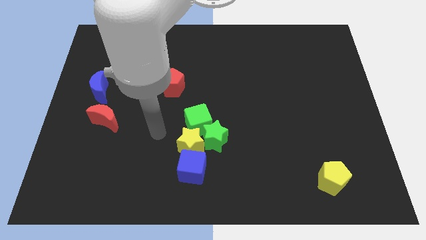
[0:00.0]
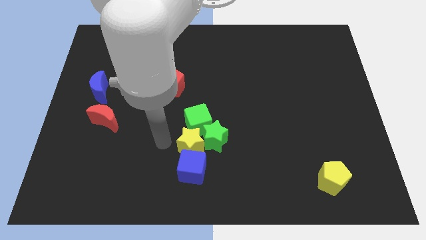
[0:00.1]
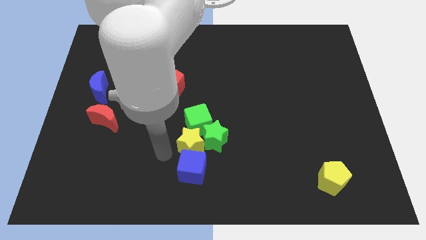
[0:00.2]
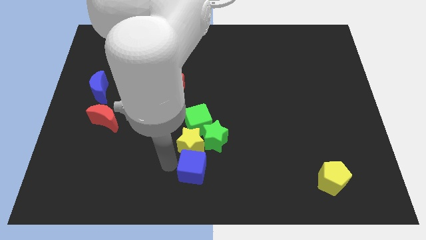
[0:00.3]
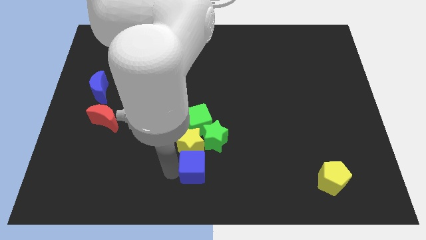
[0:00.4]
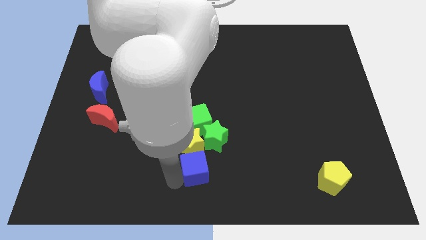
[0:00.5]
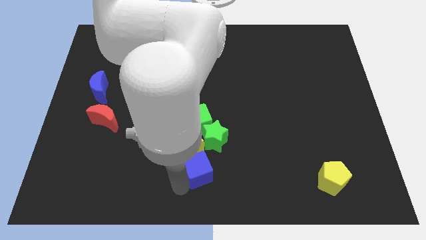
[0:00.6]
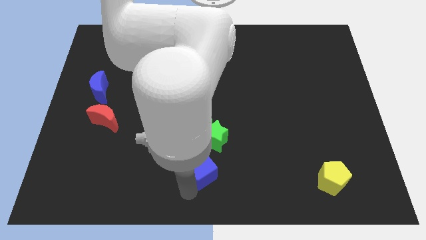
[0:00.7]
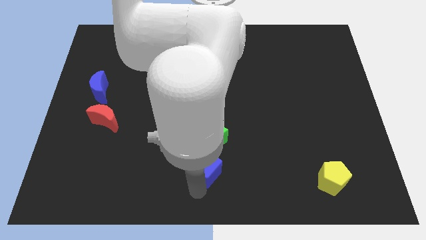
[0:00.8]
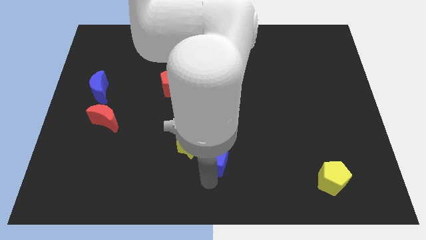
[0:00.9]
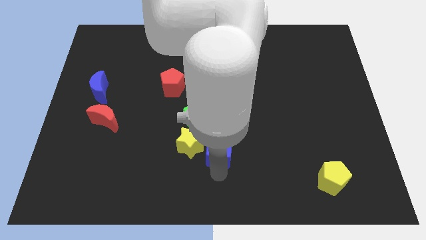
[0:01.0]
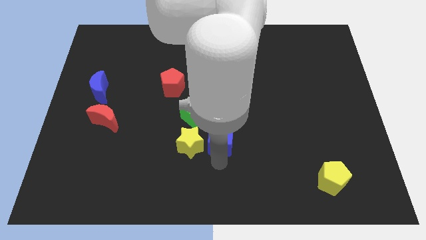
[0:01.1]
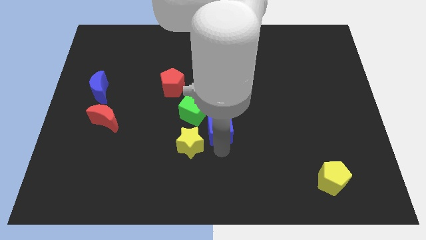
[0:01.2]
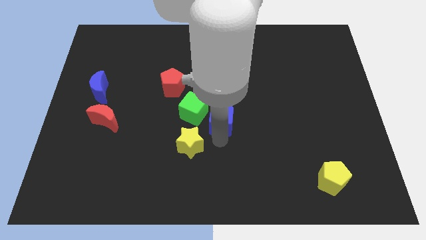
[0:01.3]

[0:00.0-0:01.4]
pull the yellow star apart from the group

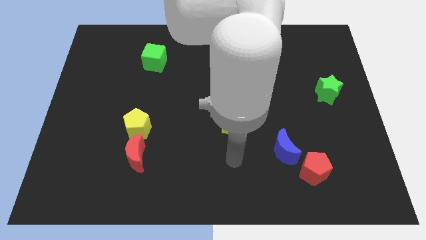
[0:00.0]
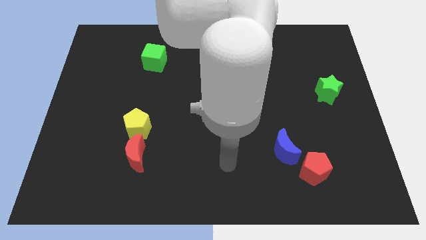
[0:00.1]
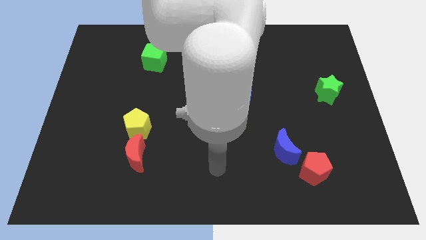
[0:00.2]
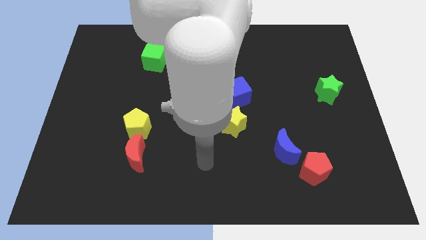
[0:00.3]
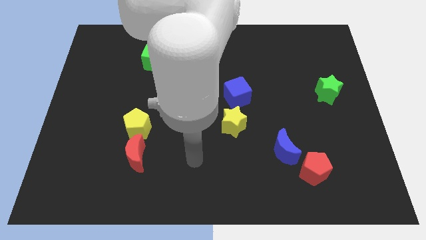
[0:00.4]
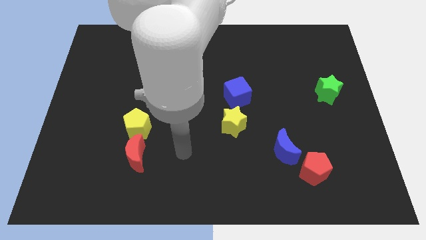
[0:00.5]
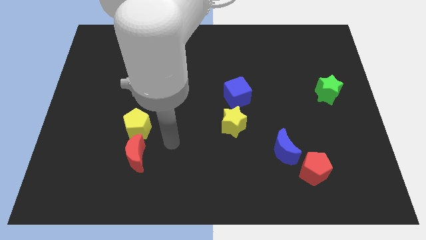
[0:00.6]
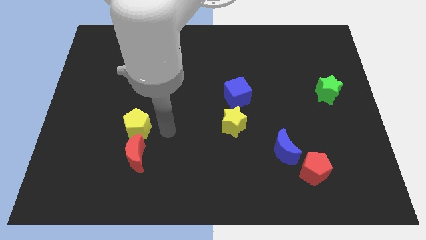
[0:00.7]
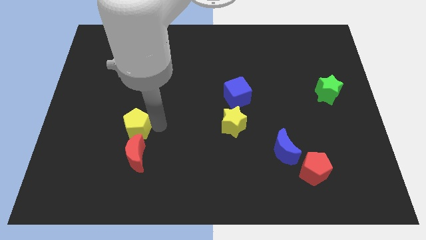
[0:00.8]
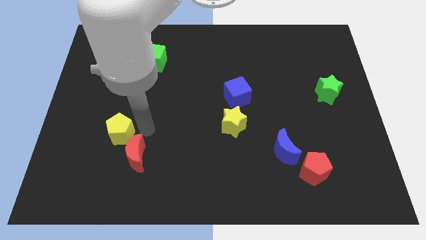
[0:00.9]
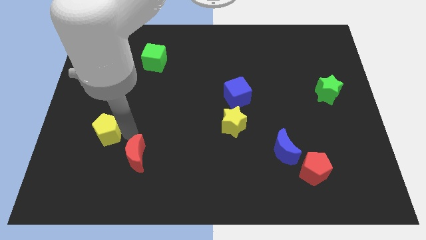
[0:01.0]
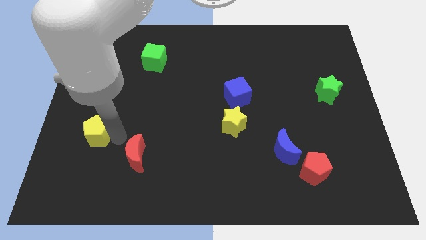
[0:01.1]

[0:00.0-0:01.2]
move the red moon away from the yellow pentagon

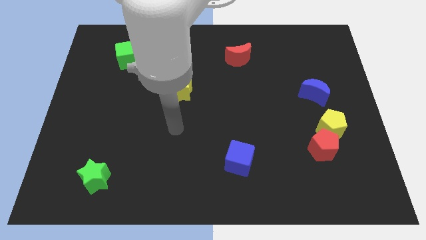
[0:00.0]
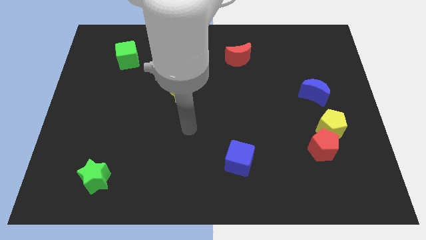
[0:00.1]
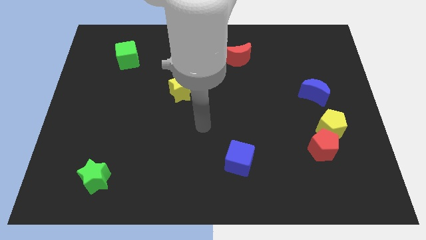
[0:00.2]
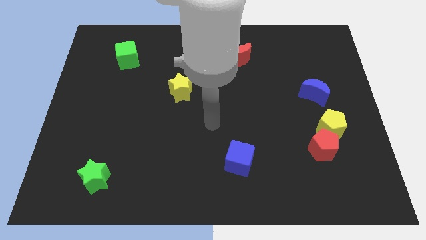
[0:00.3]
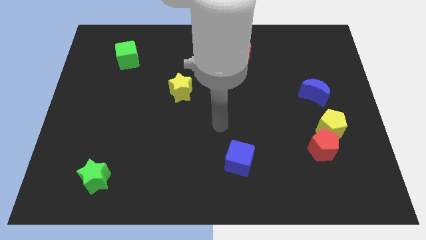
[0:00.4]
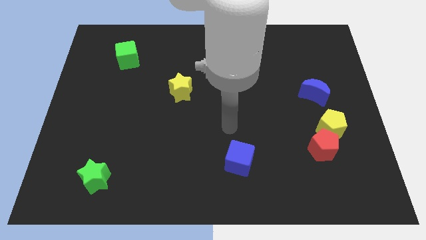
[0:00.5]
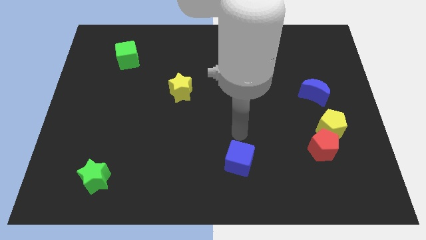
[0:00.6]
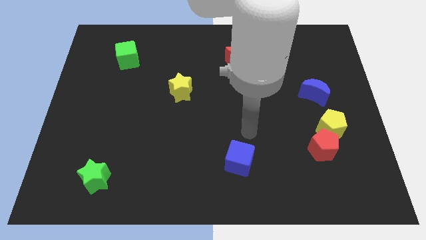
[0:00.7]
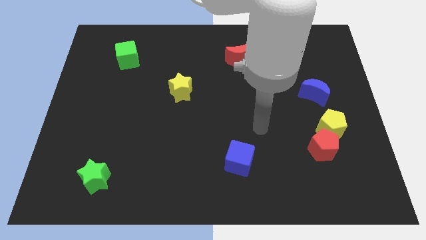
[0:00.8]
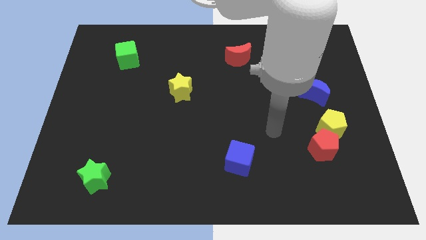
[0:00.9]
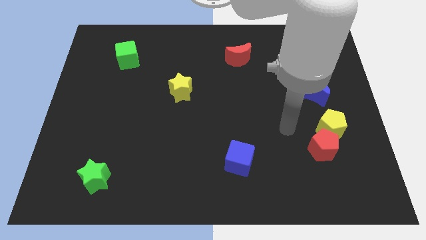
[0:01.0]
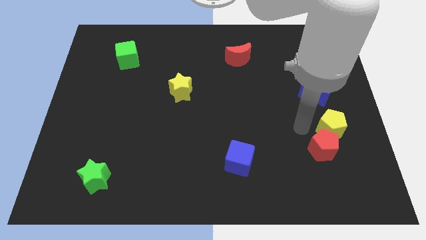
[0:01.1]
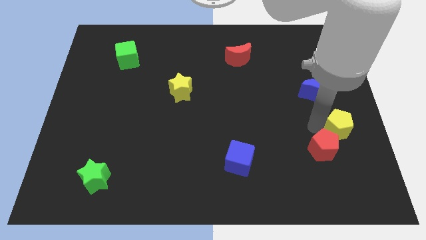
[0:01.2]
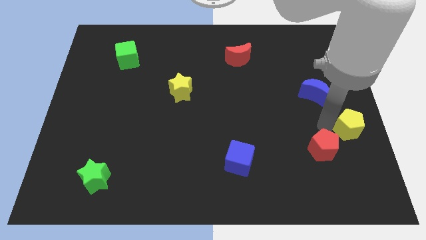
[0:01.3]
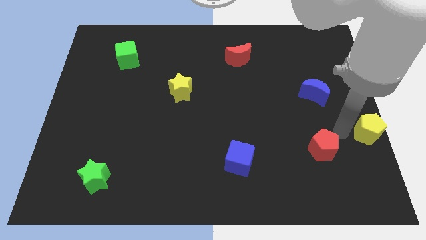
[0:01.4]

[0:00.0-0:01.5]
separate the red pentagon from the yellow pentagon

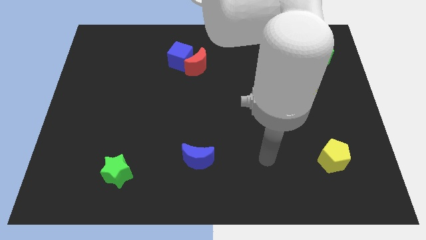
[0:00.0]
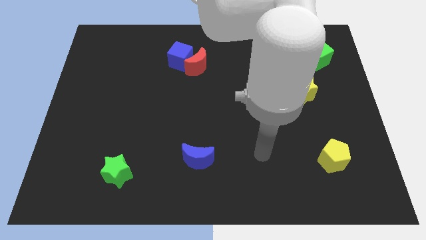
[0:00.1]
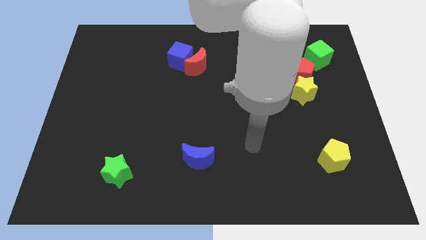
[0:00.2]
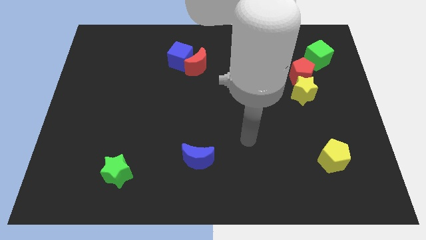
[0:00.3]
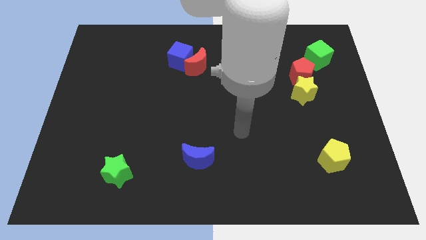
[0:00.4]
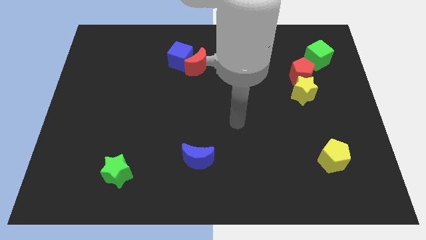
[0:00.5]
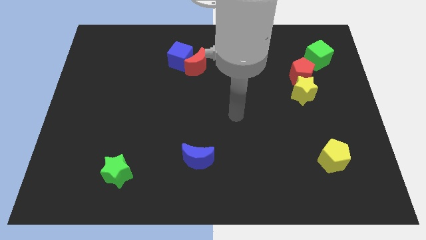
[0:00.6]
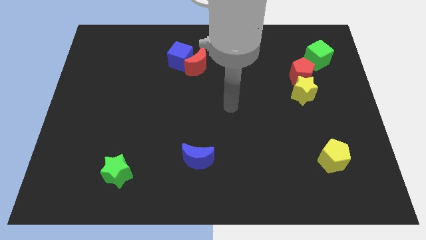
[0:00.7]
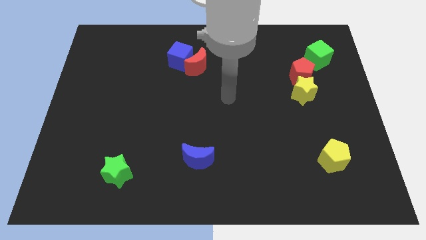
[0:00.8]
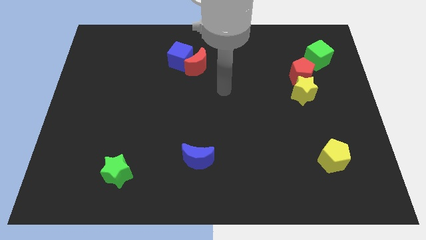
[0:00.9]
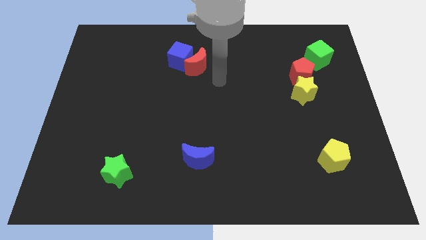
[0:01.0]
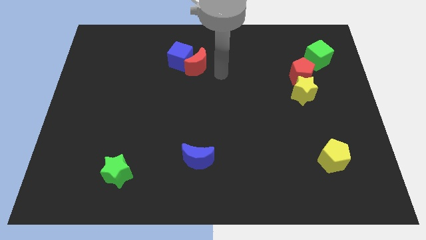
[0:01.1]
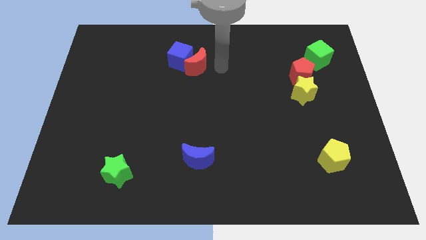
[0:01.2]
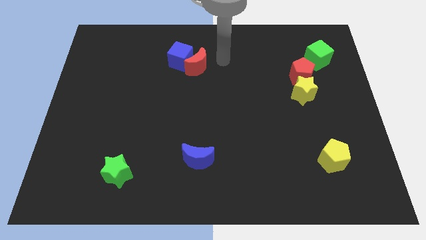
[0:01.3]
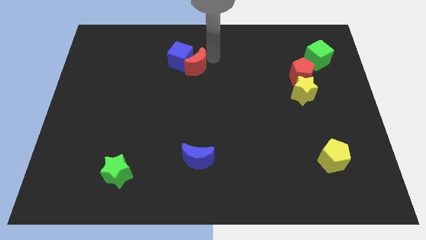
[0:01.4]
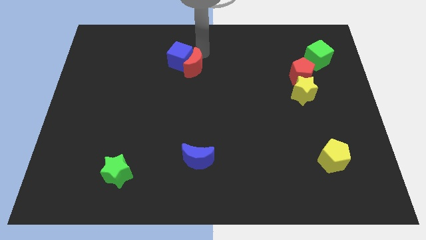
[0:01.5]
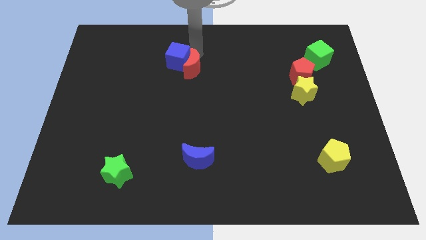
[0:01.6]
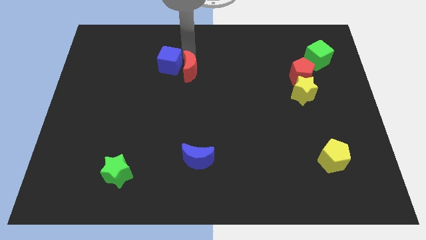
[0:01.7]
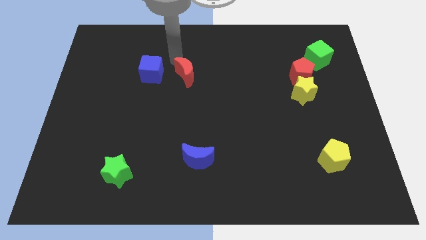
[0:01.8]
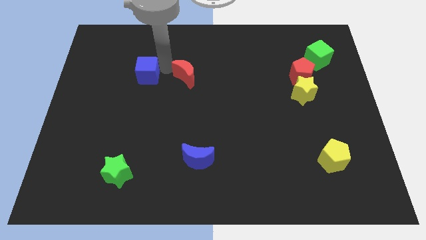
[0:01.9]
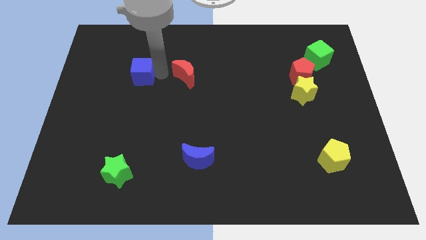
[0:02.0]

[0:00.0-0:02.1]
separate the red moon from the blue cube

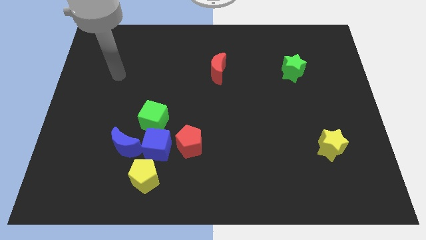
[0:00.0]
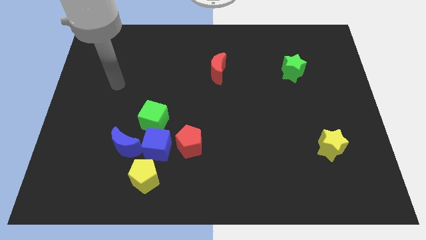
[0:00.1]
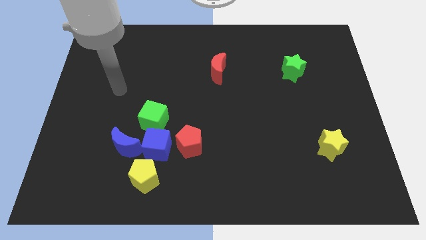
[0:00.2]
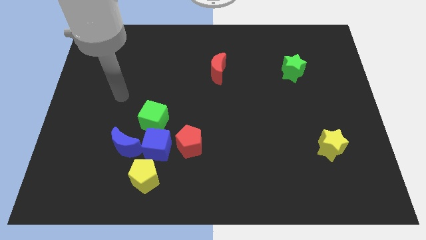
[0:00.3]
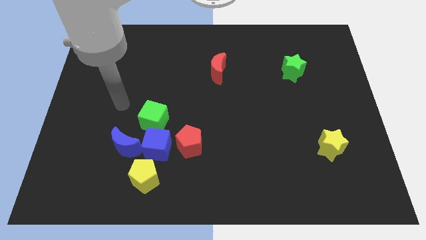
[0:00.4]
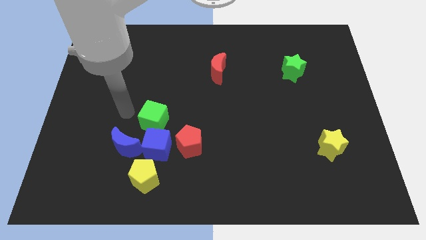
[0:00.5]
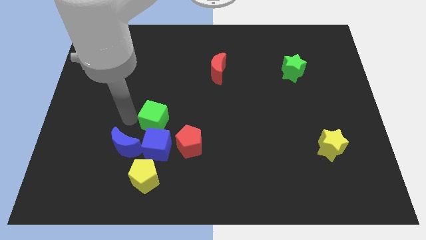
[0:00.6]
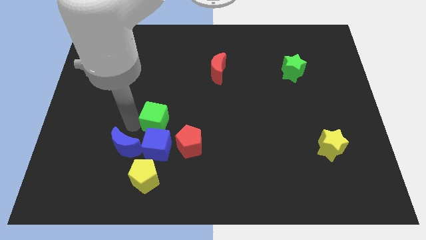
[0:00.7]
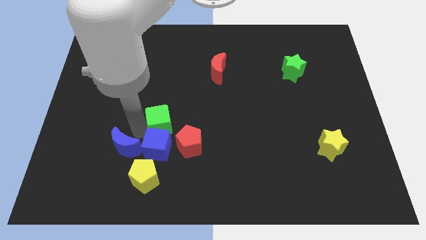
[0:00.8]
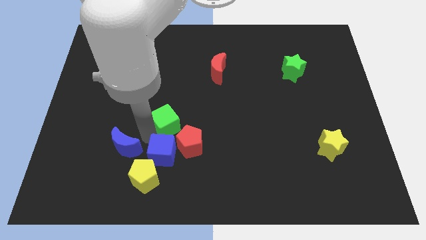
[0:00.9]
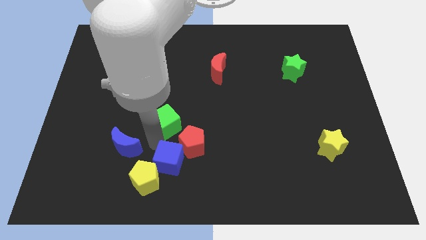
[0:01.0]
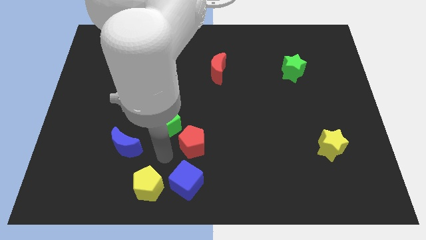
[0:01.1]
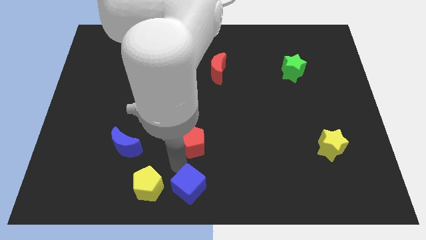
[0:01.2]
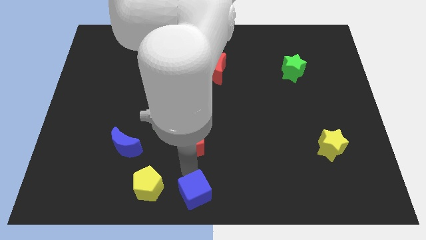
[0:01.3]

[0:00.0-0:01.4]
pull the red pentagon apart from the blue cube

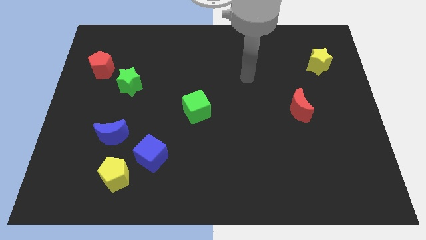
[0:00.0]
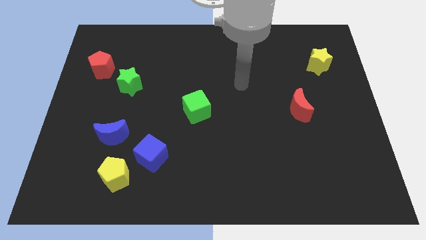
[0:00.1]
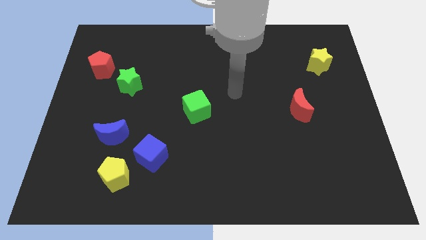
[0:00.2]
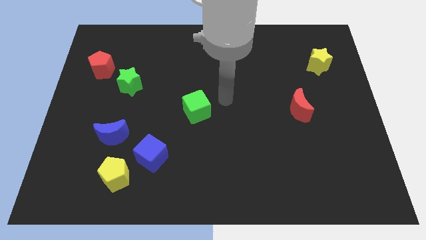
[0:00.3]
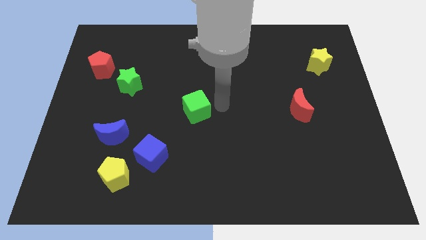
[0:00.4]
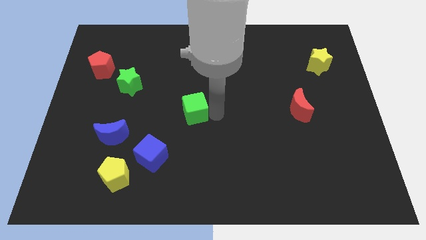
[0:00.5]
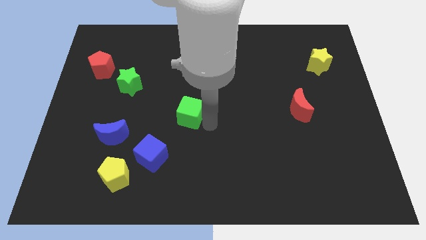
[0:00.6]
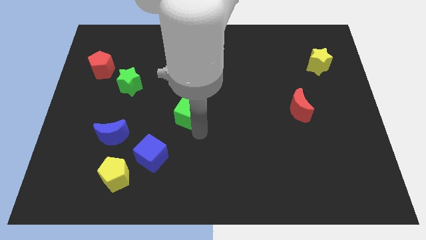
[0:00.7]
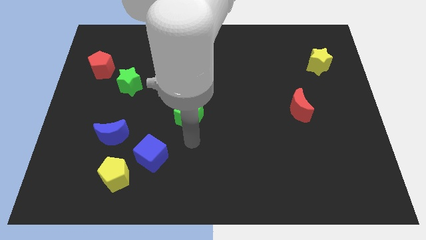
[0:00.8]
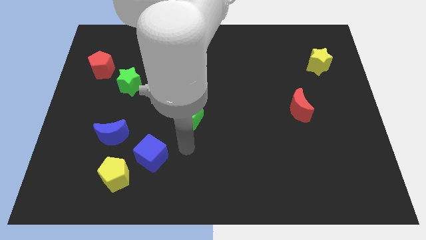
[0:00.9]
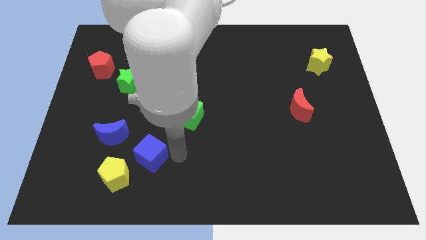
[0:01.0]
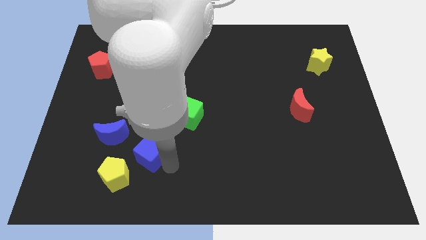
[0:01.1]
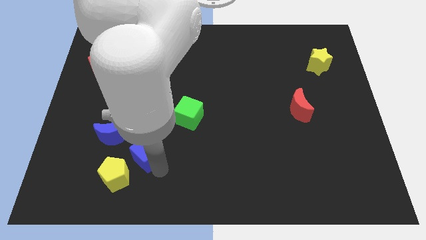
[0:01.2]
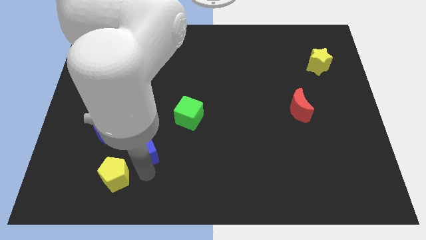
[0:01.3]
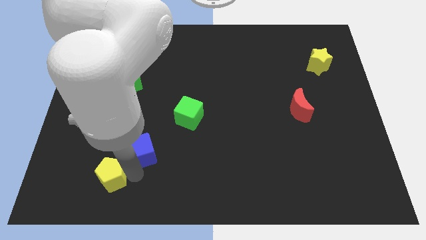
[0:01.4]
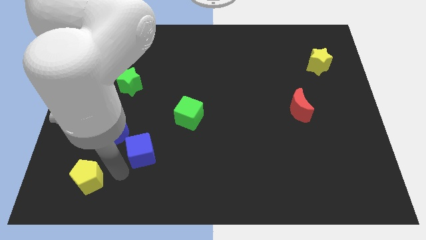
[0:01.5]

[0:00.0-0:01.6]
pull the blue cube apart from the yellow pentagon
